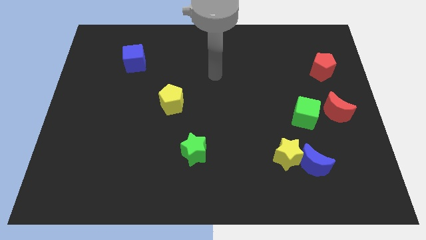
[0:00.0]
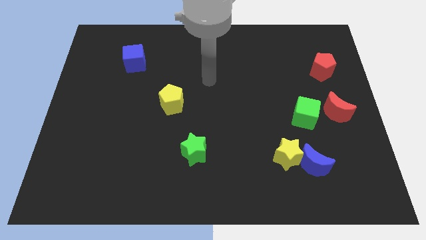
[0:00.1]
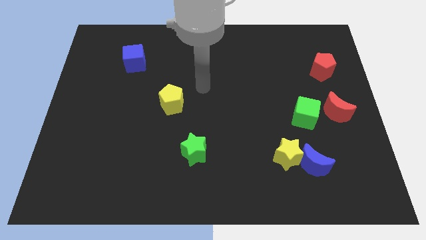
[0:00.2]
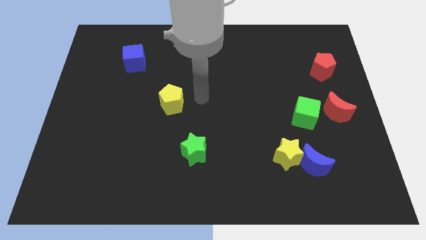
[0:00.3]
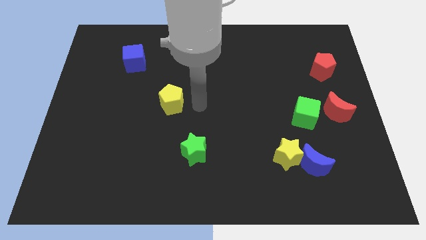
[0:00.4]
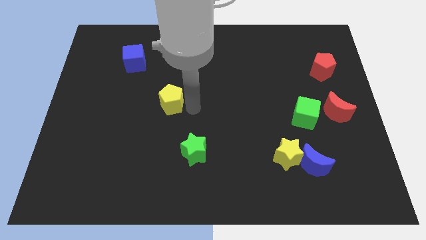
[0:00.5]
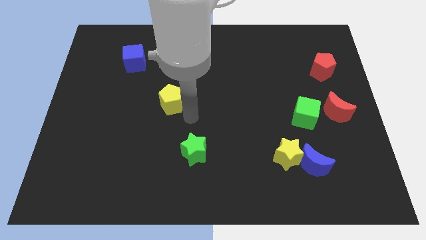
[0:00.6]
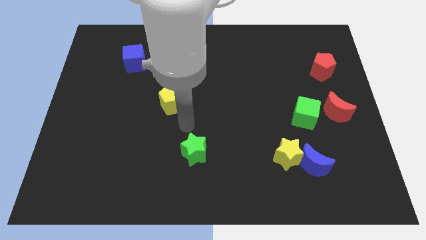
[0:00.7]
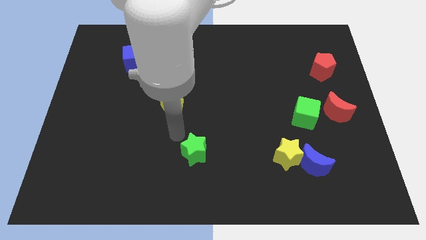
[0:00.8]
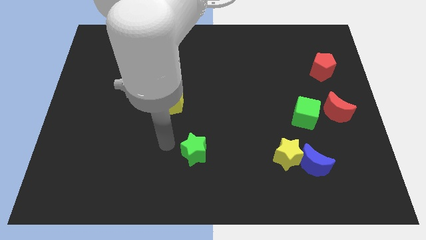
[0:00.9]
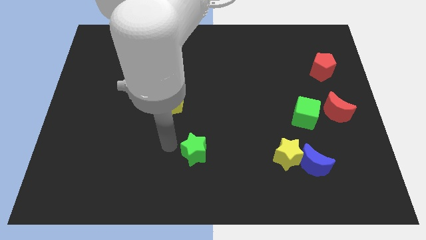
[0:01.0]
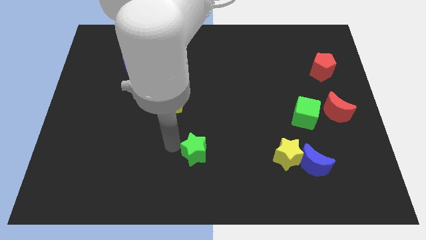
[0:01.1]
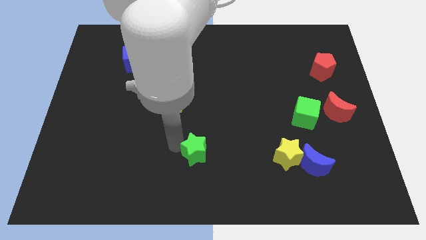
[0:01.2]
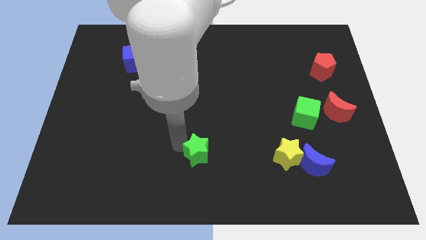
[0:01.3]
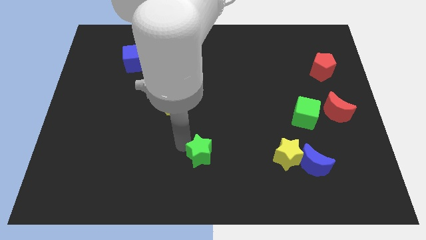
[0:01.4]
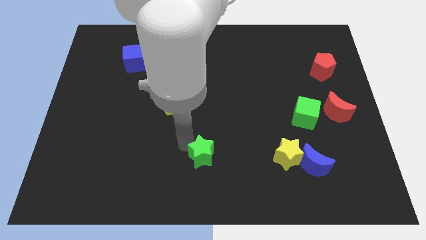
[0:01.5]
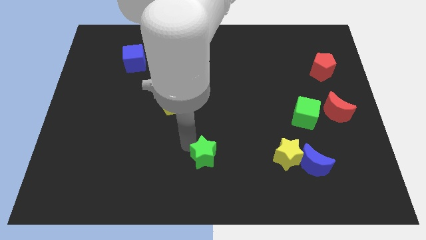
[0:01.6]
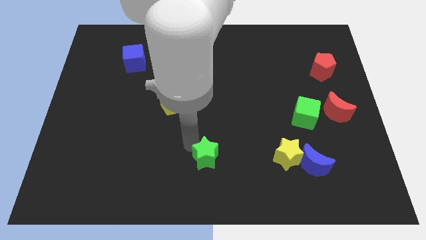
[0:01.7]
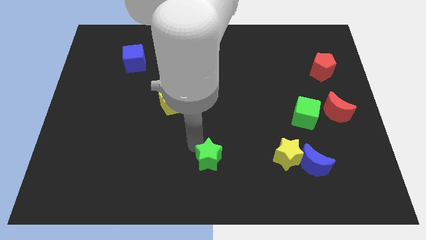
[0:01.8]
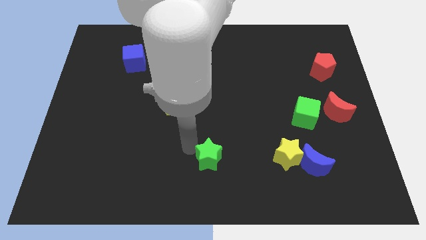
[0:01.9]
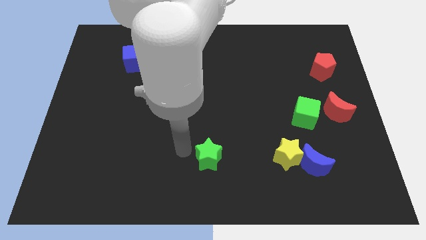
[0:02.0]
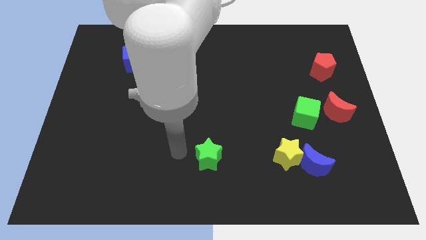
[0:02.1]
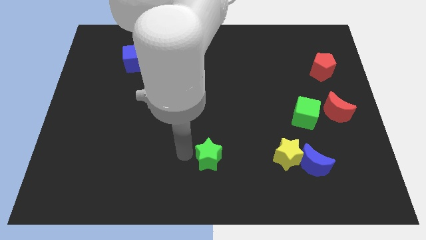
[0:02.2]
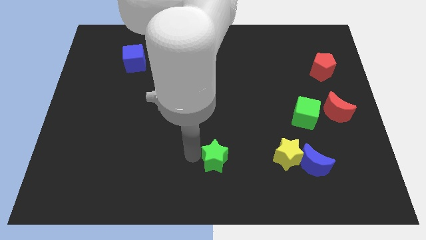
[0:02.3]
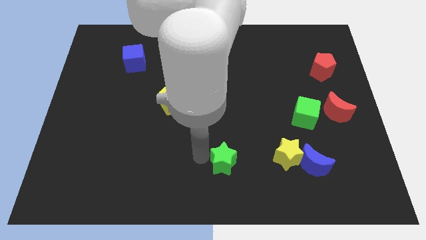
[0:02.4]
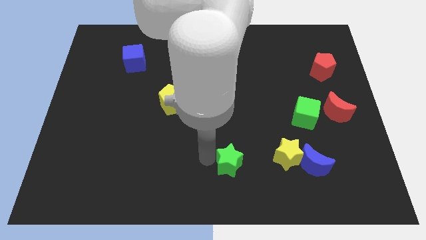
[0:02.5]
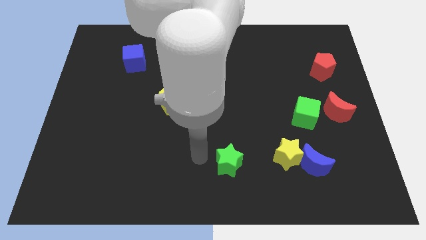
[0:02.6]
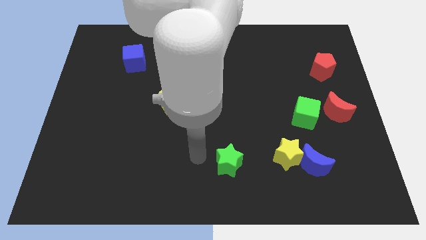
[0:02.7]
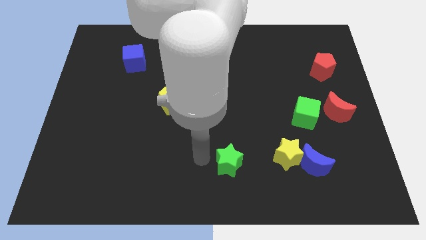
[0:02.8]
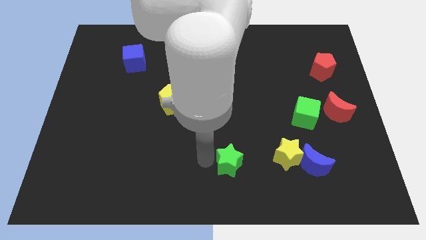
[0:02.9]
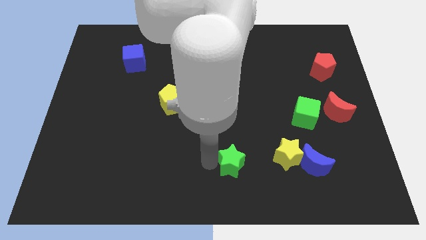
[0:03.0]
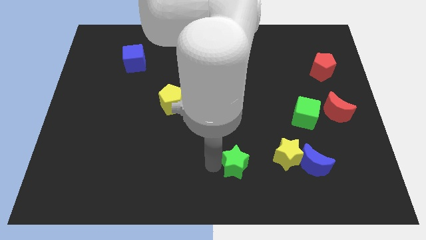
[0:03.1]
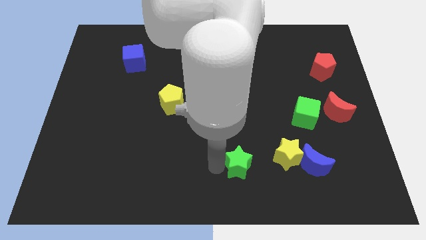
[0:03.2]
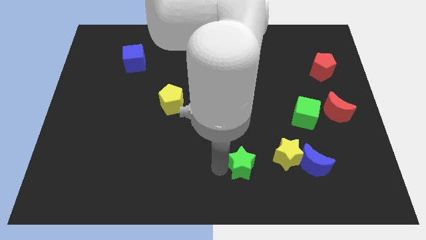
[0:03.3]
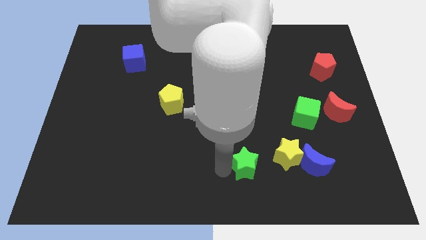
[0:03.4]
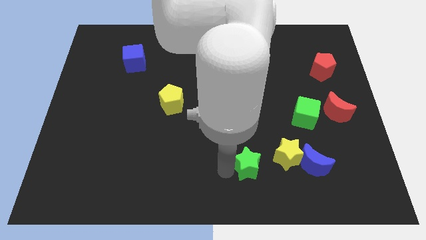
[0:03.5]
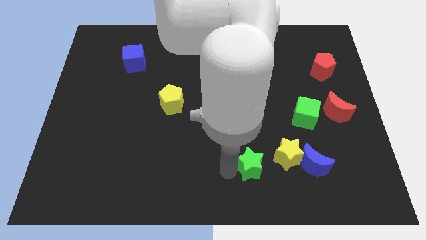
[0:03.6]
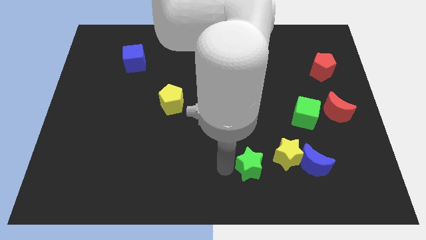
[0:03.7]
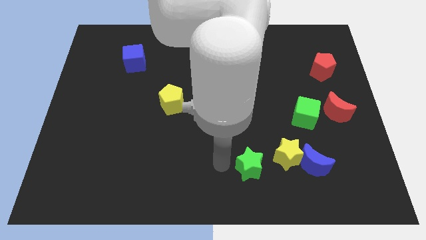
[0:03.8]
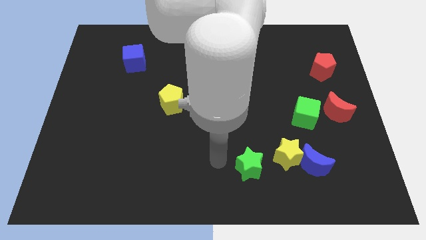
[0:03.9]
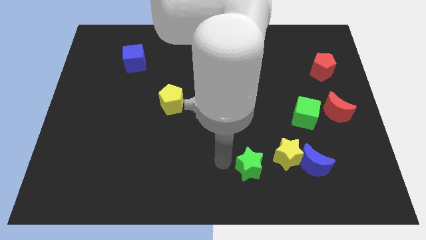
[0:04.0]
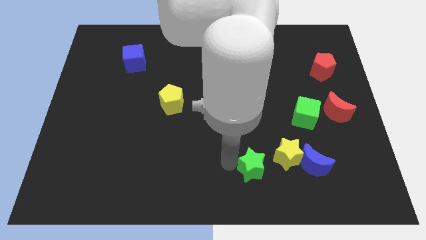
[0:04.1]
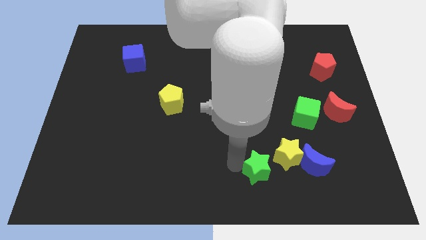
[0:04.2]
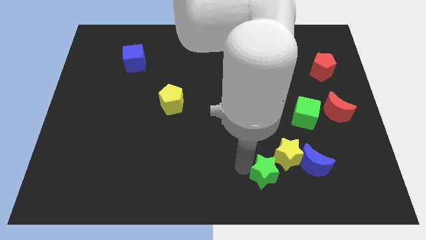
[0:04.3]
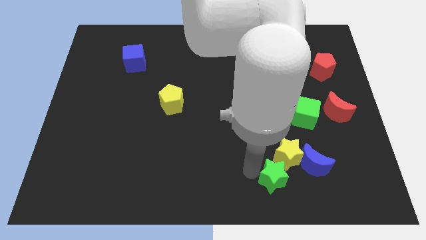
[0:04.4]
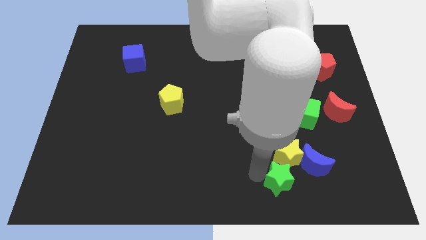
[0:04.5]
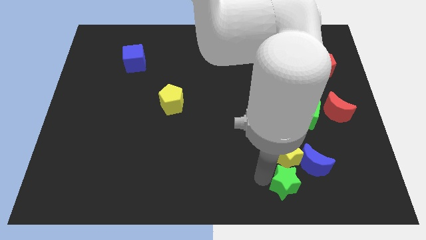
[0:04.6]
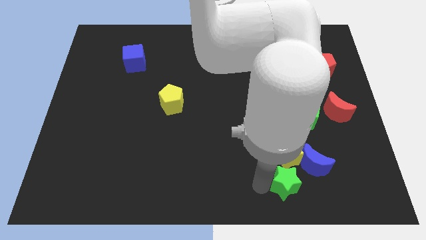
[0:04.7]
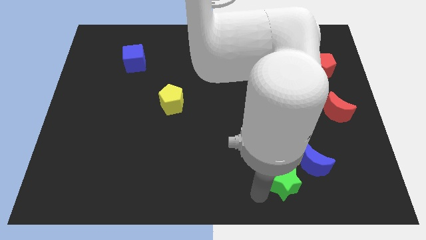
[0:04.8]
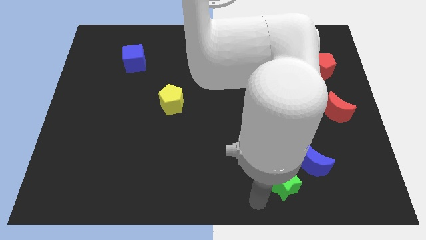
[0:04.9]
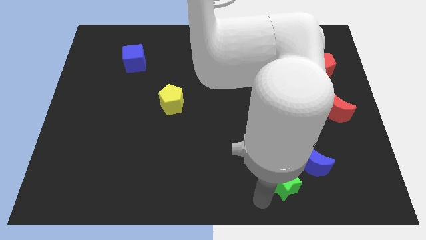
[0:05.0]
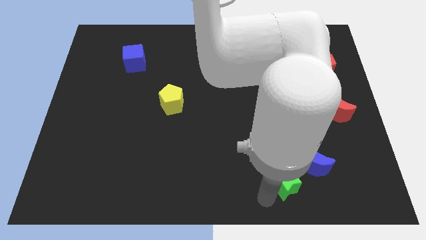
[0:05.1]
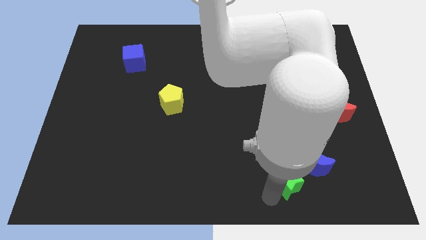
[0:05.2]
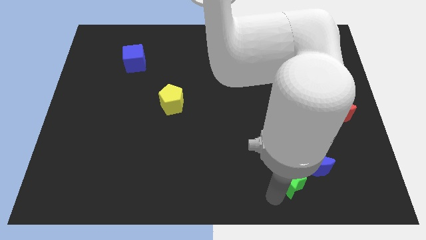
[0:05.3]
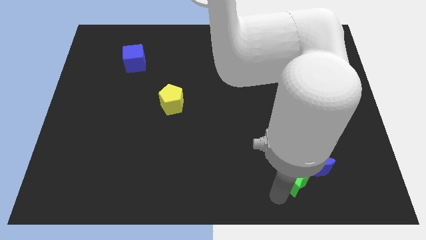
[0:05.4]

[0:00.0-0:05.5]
push the green star next to the blue moon

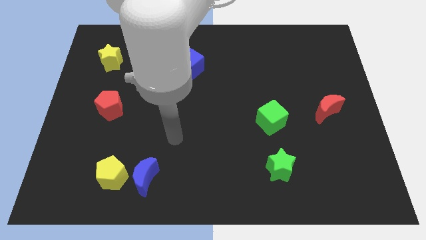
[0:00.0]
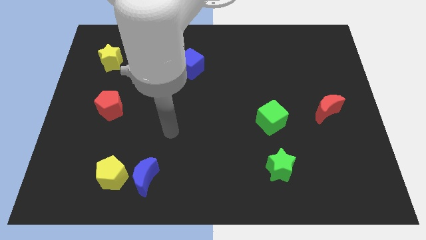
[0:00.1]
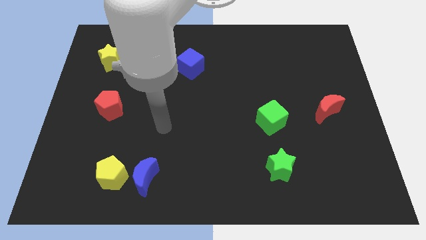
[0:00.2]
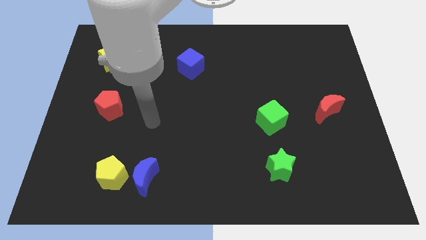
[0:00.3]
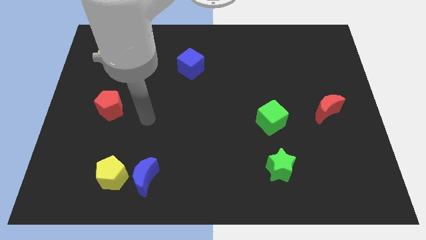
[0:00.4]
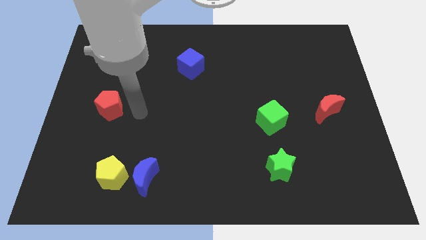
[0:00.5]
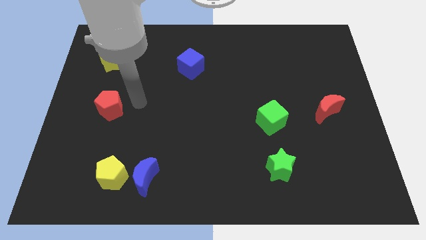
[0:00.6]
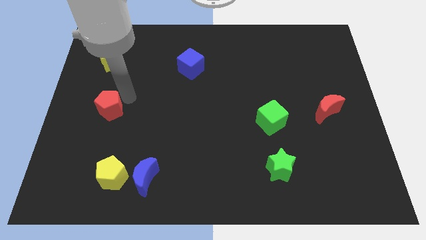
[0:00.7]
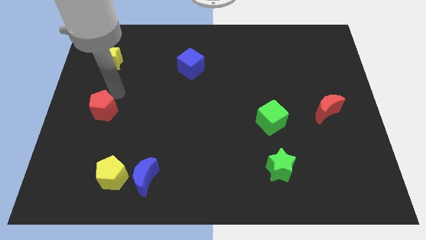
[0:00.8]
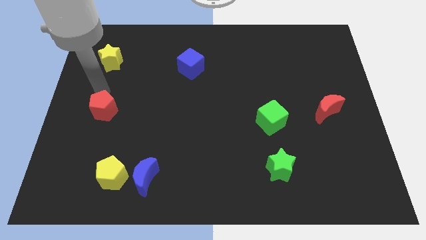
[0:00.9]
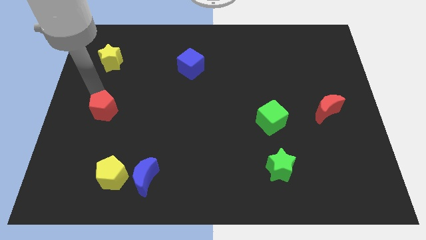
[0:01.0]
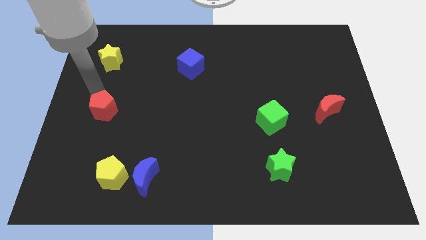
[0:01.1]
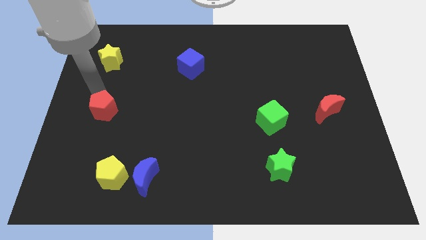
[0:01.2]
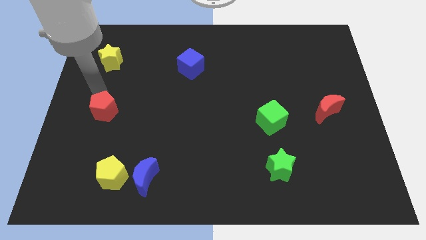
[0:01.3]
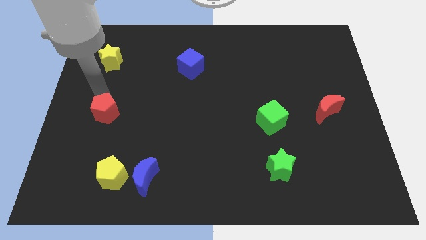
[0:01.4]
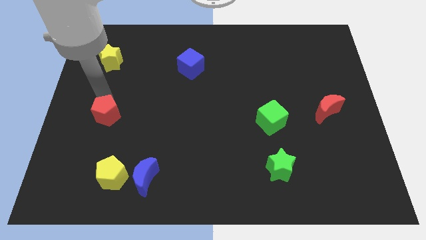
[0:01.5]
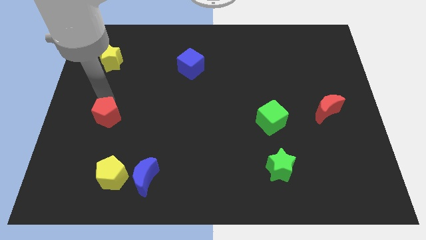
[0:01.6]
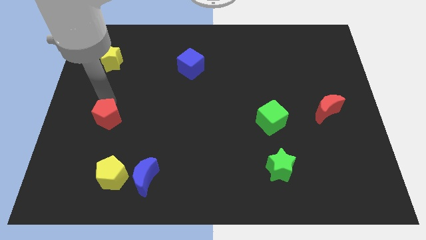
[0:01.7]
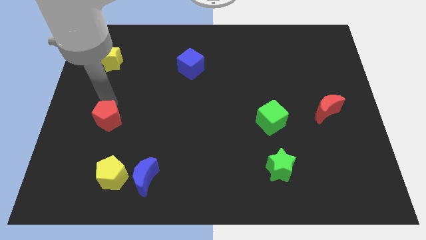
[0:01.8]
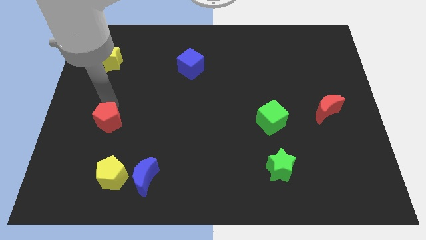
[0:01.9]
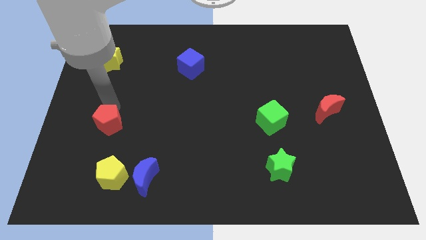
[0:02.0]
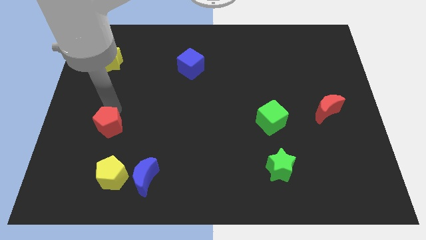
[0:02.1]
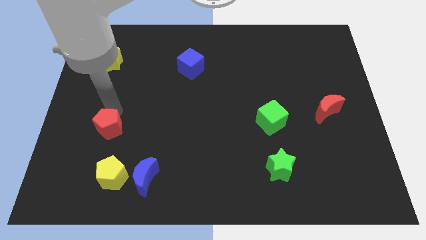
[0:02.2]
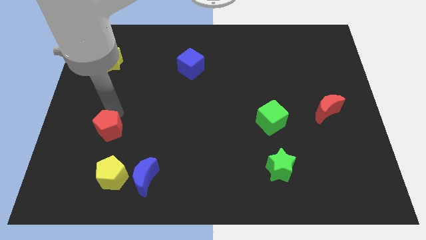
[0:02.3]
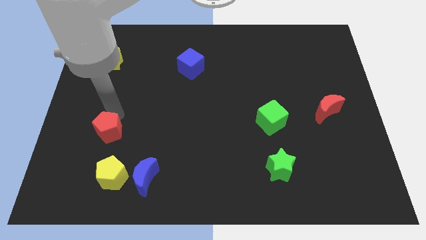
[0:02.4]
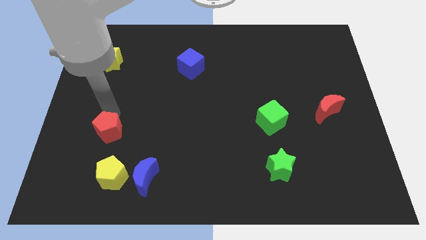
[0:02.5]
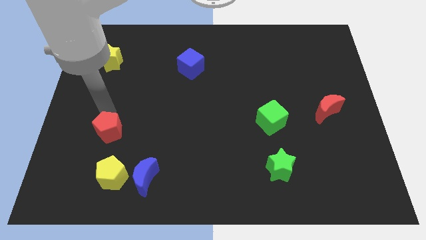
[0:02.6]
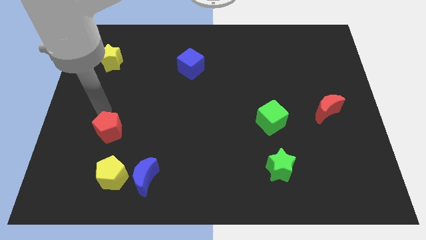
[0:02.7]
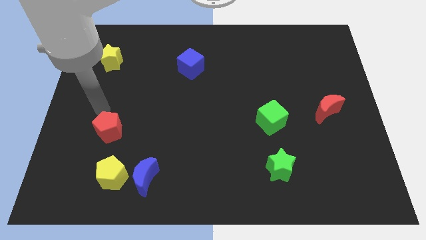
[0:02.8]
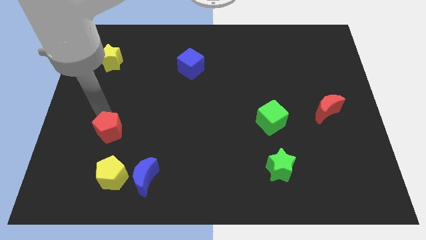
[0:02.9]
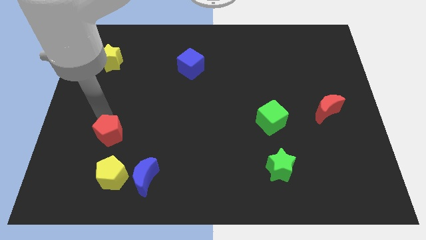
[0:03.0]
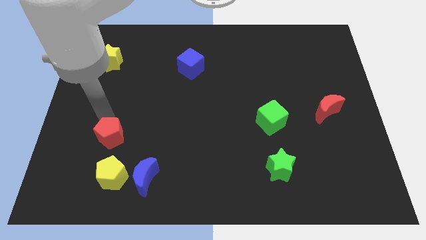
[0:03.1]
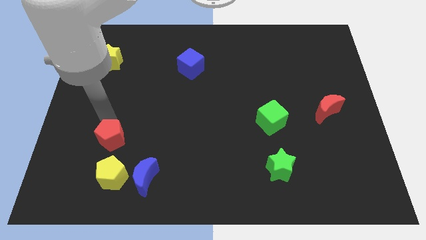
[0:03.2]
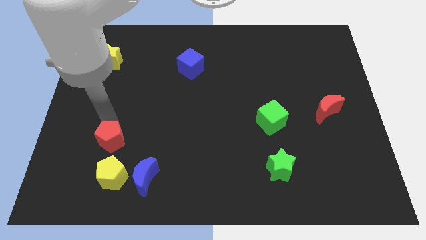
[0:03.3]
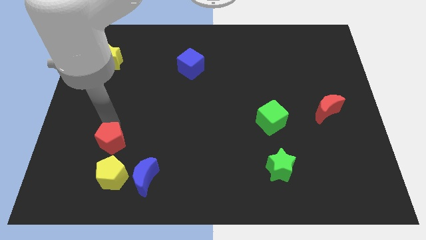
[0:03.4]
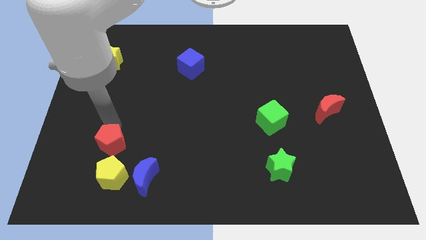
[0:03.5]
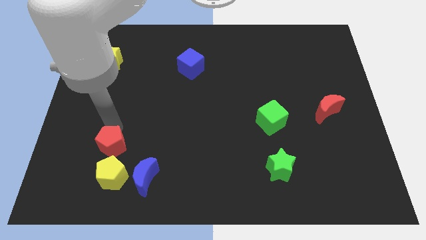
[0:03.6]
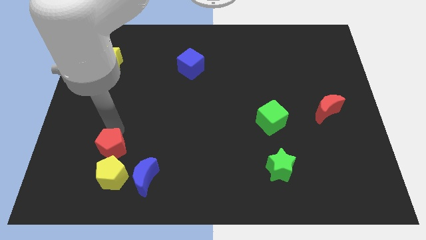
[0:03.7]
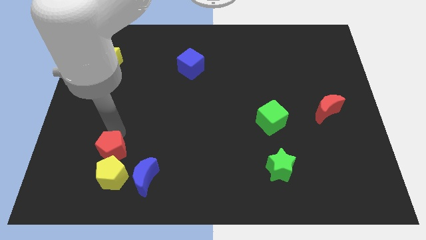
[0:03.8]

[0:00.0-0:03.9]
move the red pentagon towards the yellow pentagon
